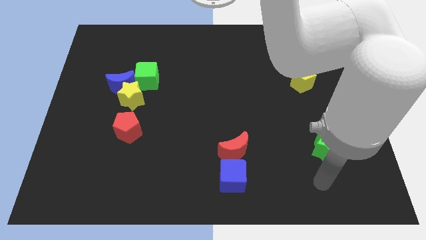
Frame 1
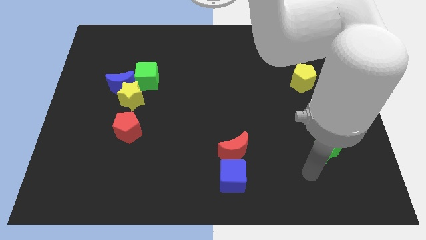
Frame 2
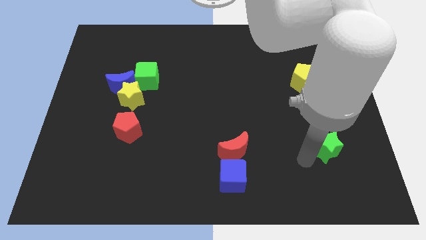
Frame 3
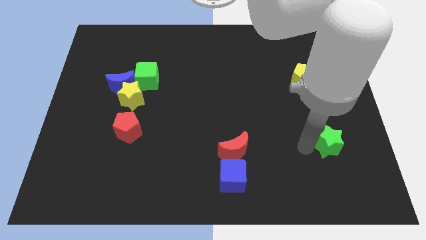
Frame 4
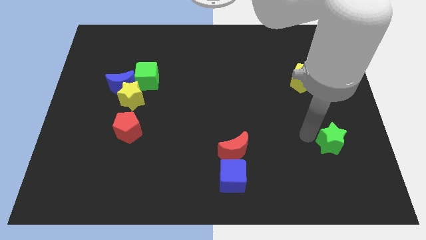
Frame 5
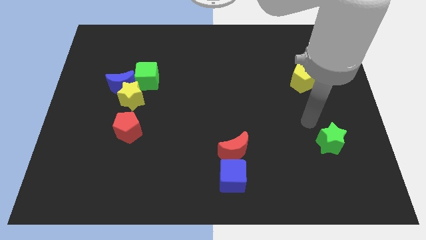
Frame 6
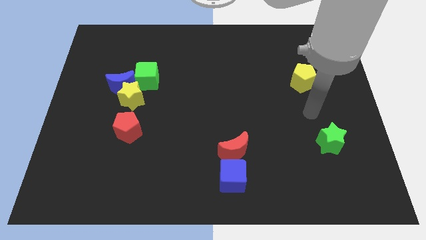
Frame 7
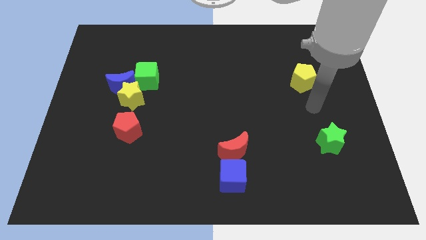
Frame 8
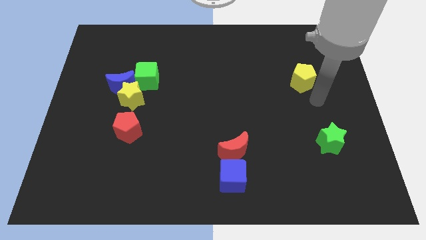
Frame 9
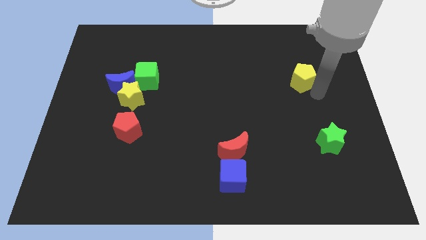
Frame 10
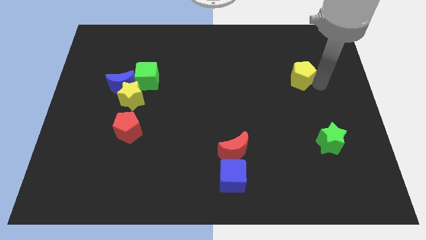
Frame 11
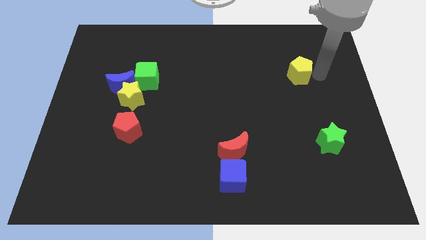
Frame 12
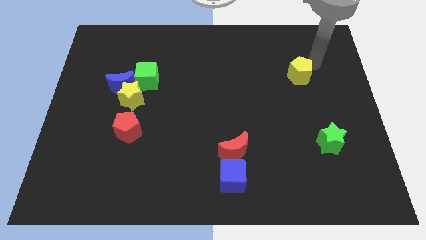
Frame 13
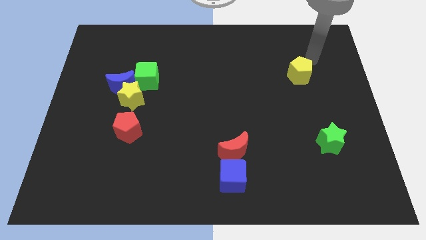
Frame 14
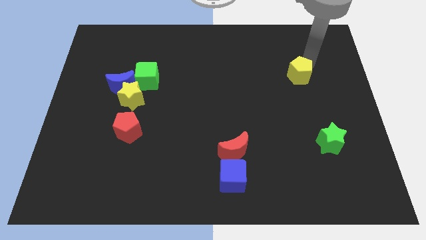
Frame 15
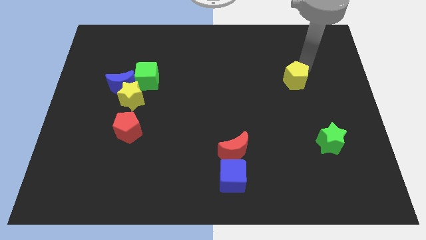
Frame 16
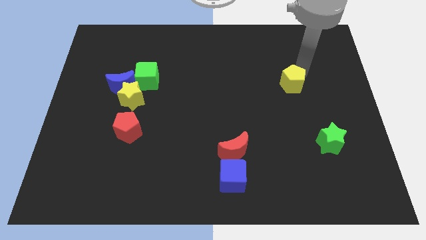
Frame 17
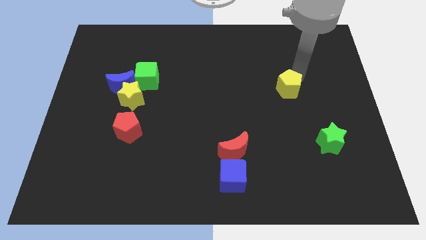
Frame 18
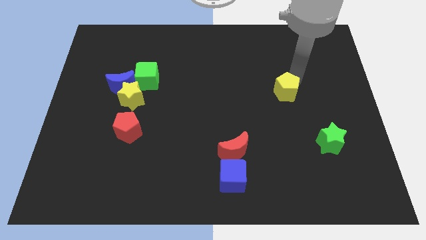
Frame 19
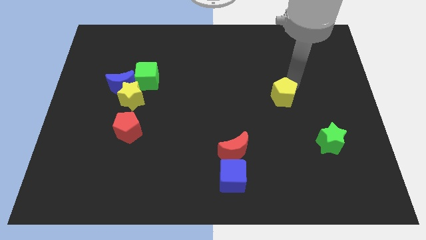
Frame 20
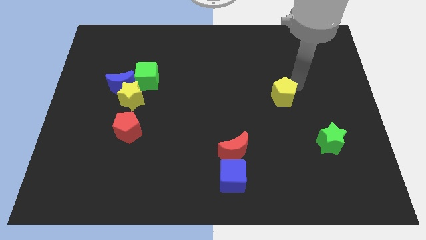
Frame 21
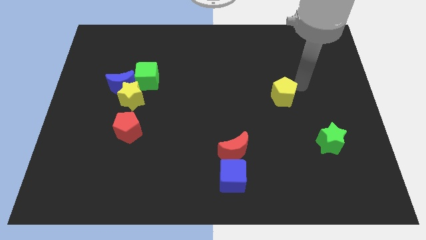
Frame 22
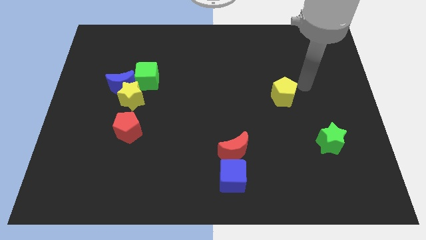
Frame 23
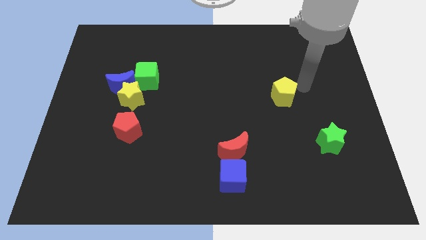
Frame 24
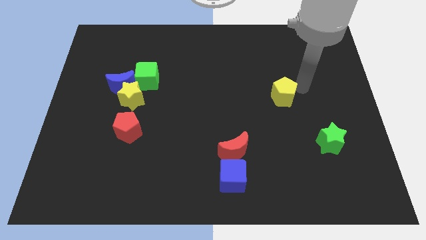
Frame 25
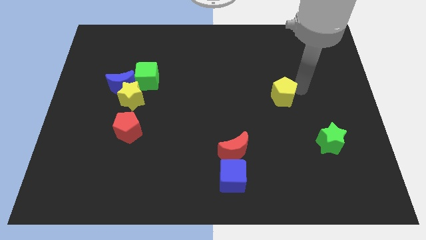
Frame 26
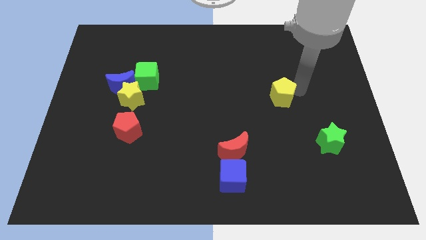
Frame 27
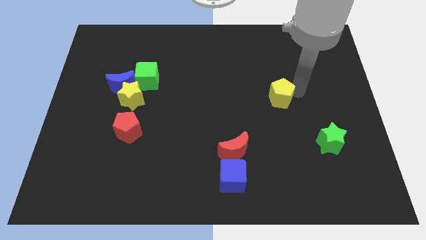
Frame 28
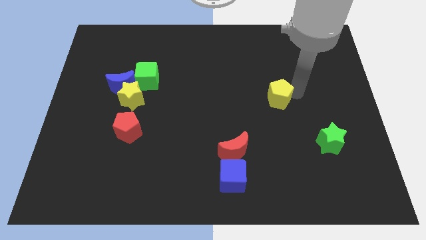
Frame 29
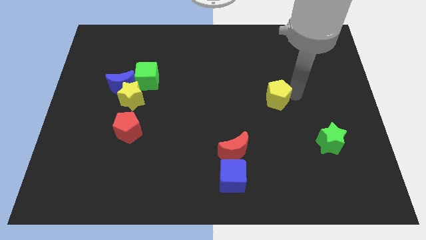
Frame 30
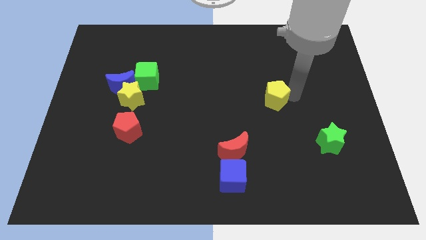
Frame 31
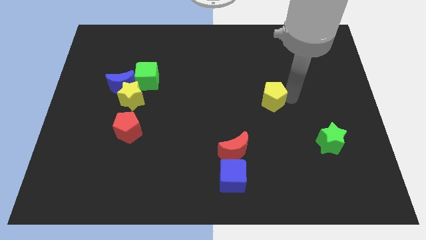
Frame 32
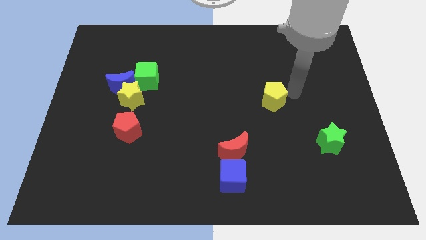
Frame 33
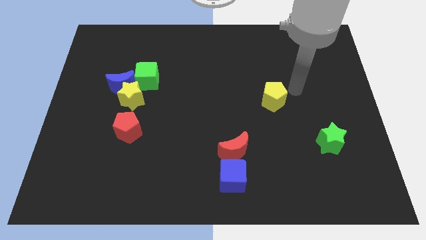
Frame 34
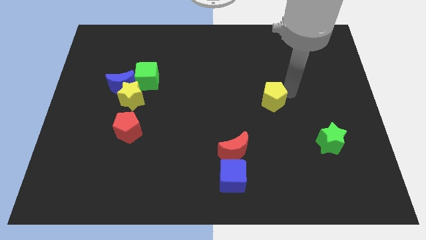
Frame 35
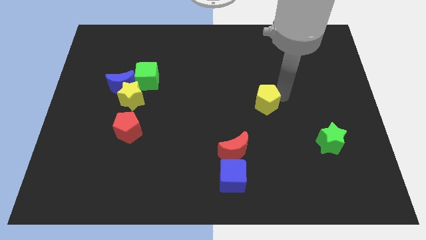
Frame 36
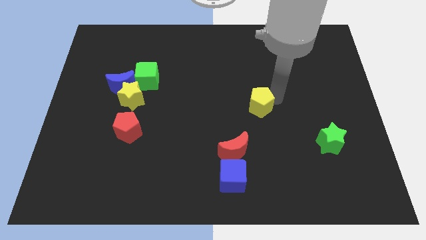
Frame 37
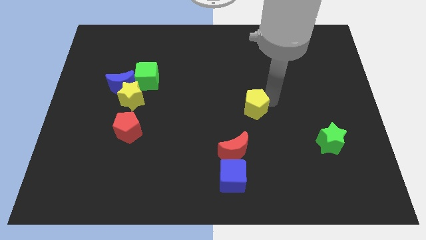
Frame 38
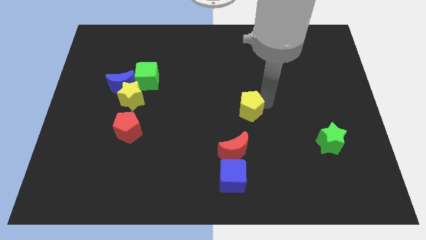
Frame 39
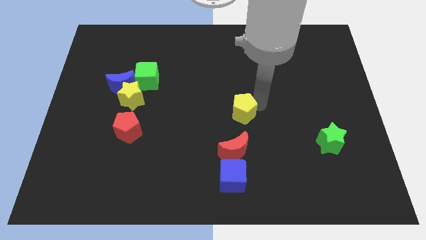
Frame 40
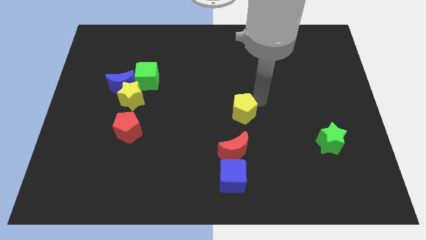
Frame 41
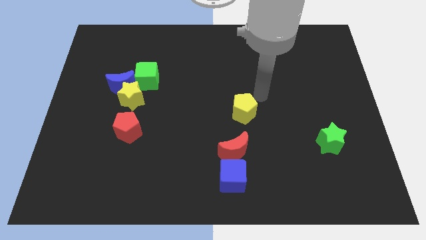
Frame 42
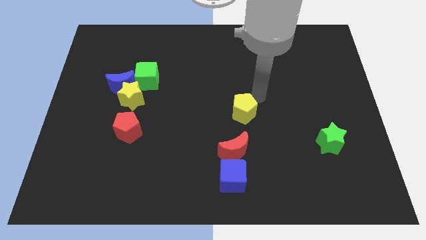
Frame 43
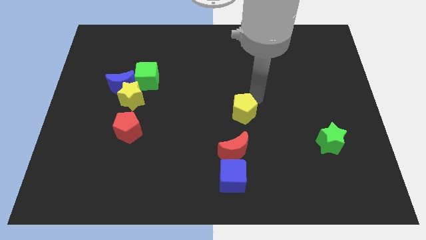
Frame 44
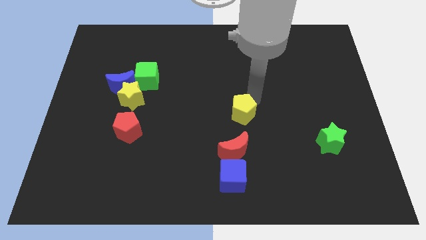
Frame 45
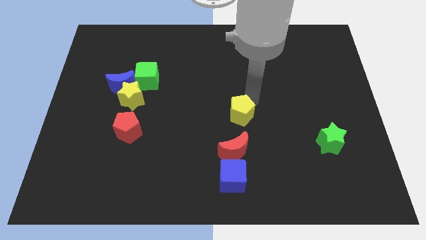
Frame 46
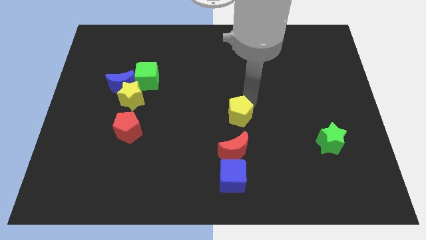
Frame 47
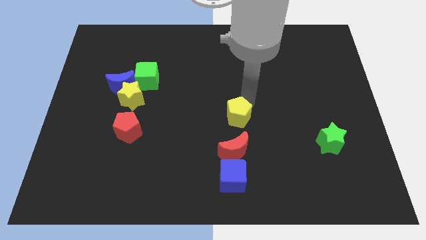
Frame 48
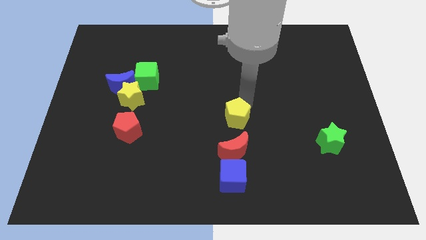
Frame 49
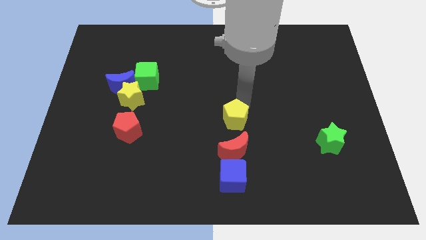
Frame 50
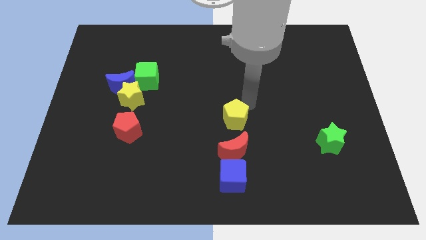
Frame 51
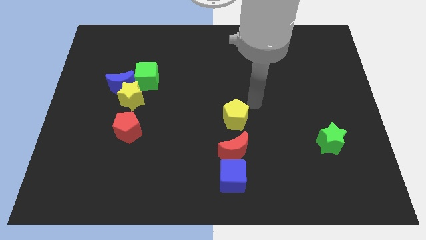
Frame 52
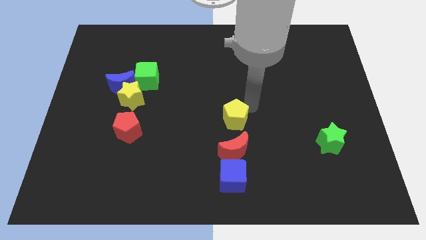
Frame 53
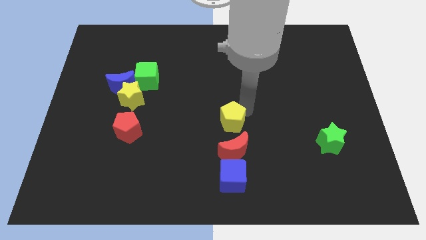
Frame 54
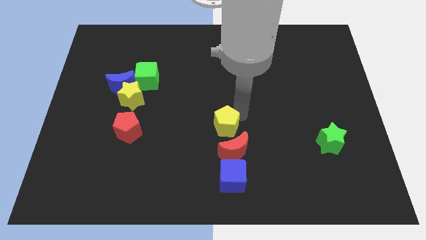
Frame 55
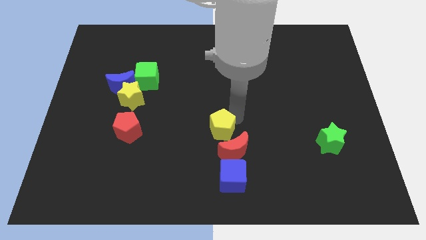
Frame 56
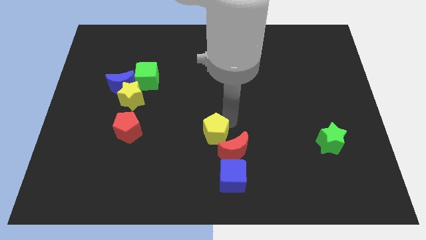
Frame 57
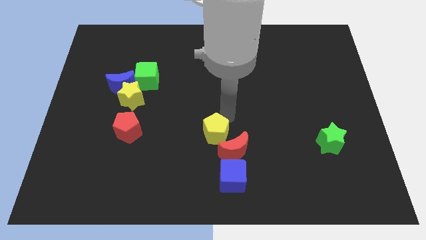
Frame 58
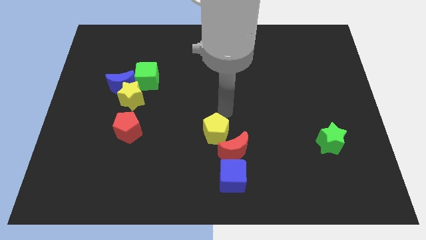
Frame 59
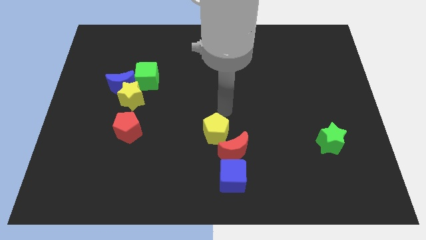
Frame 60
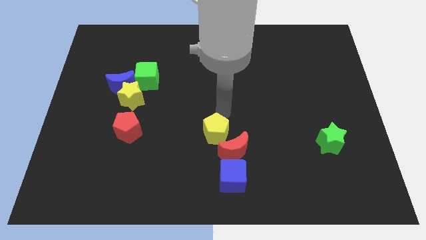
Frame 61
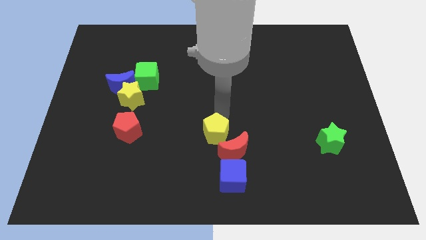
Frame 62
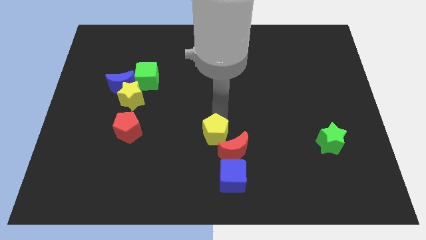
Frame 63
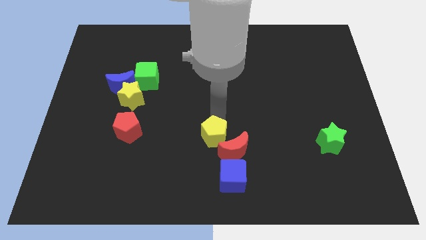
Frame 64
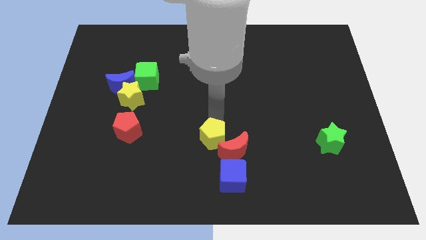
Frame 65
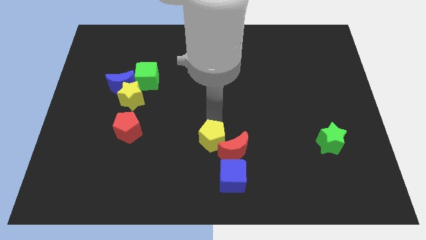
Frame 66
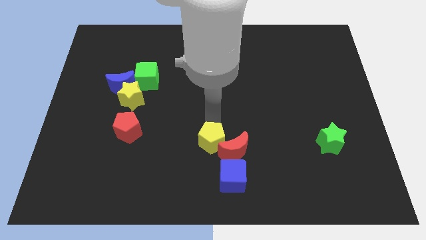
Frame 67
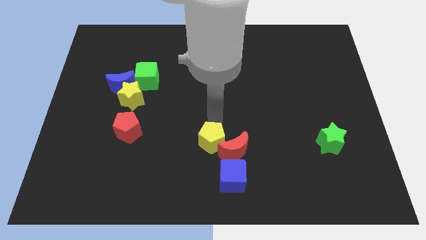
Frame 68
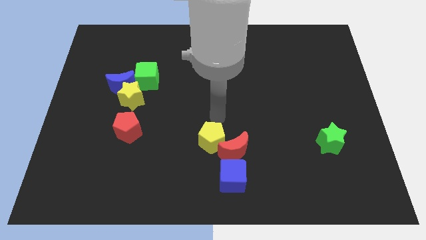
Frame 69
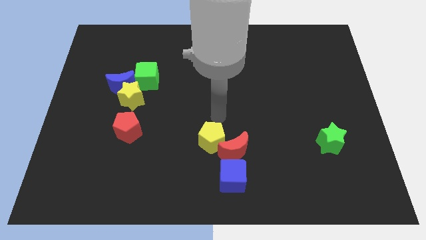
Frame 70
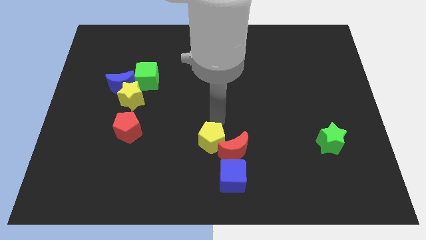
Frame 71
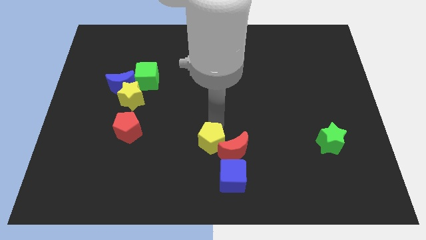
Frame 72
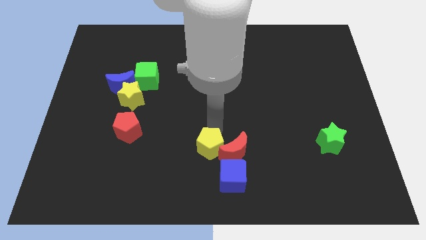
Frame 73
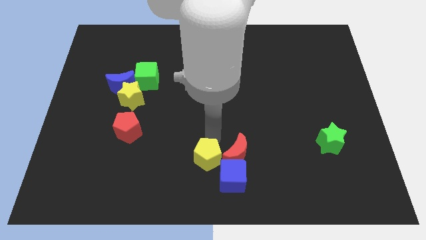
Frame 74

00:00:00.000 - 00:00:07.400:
slide the yellow pentagon to the bottom side
